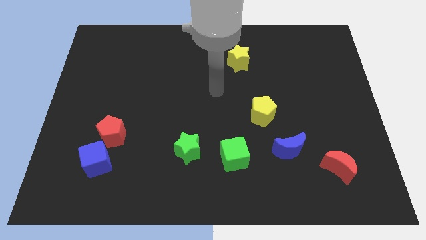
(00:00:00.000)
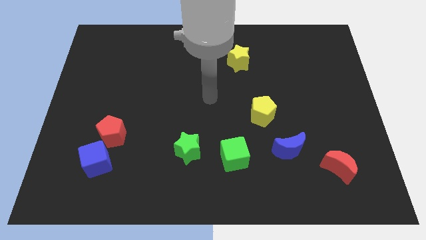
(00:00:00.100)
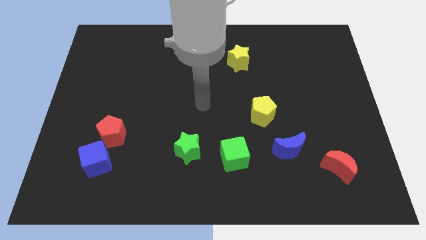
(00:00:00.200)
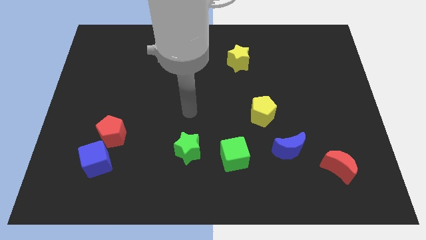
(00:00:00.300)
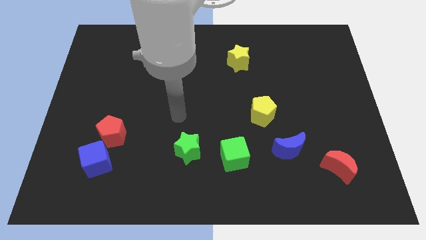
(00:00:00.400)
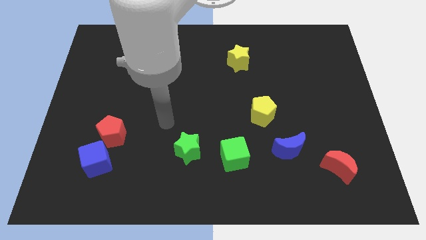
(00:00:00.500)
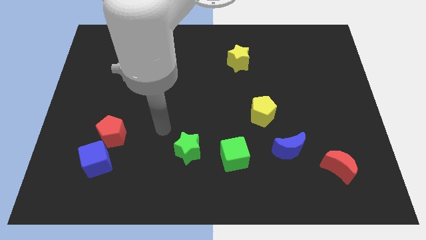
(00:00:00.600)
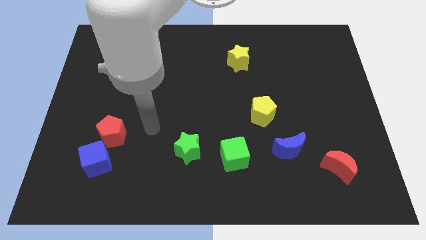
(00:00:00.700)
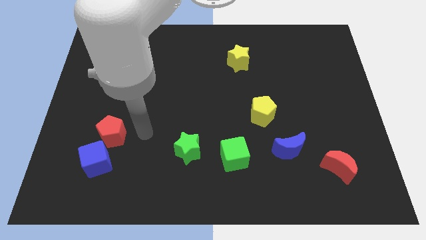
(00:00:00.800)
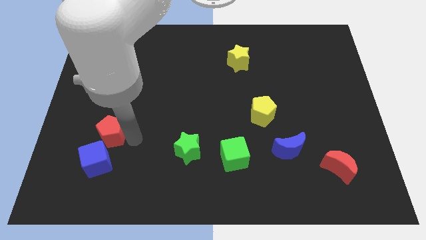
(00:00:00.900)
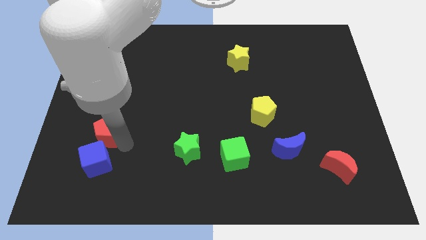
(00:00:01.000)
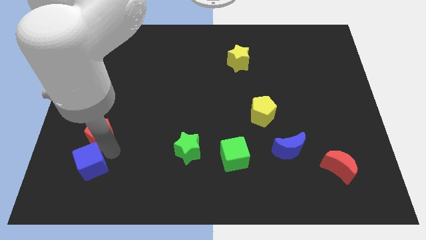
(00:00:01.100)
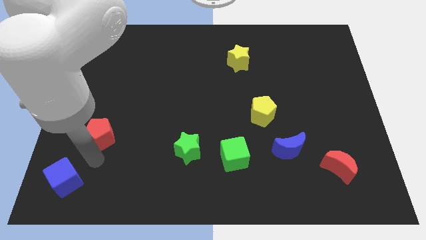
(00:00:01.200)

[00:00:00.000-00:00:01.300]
separate the red pentagon from the blue cube

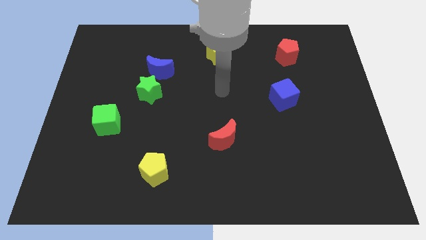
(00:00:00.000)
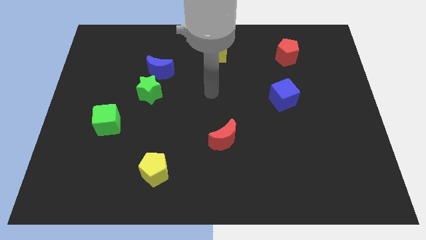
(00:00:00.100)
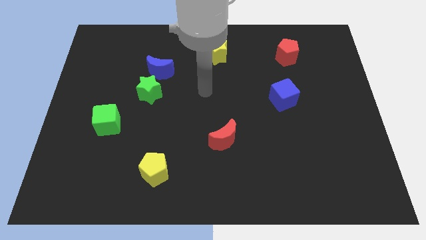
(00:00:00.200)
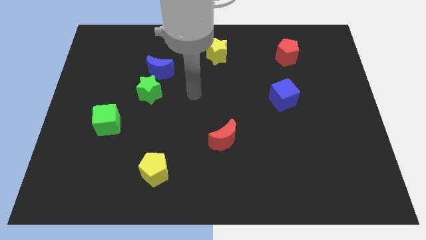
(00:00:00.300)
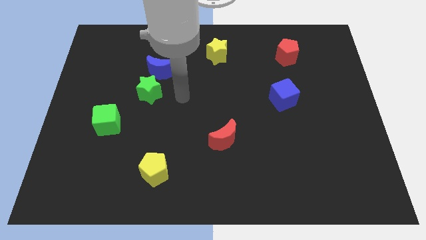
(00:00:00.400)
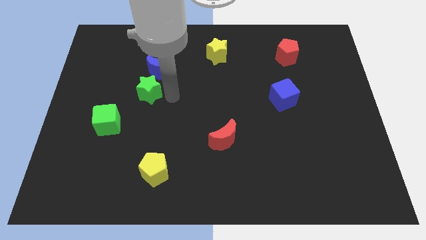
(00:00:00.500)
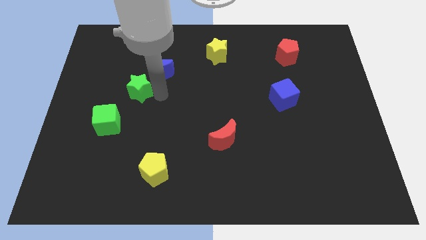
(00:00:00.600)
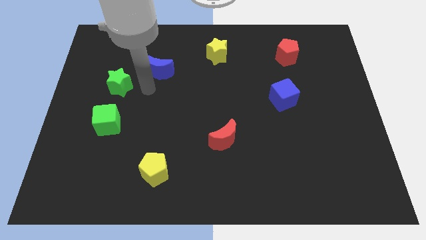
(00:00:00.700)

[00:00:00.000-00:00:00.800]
separate the blue moon from the green star

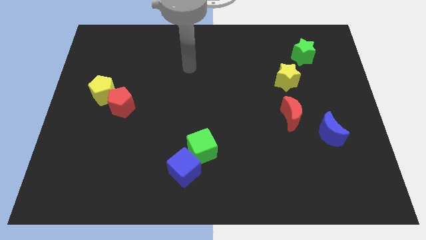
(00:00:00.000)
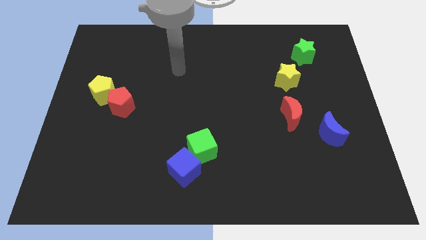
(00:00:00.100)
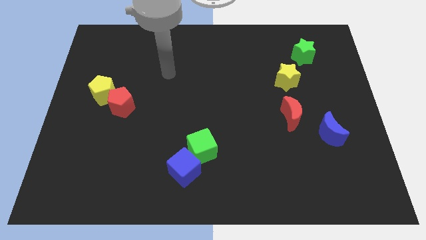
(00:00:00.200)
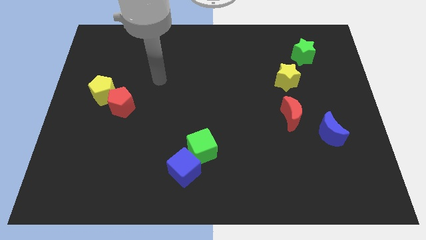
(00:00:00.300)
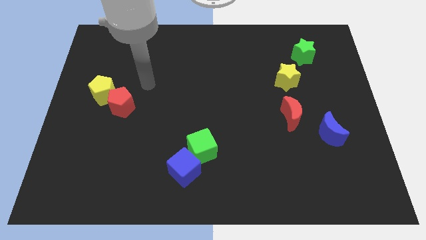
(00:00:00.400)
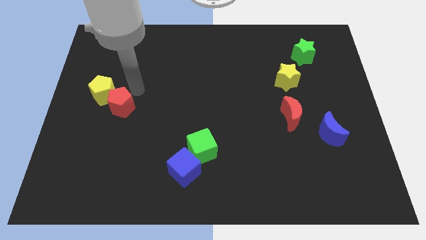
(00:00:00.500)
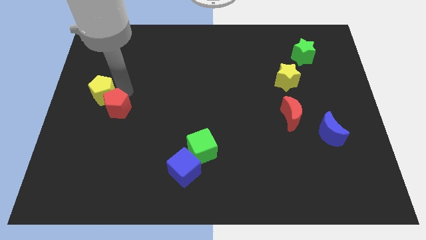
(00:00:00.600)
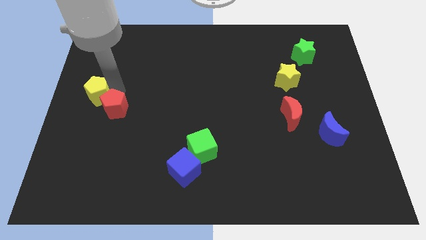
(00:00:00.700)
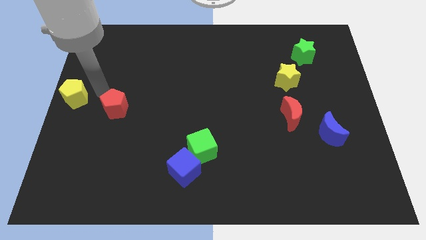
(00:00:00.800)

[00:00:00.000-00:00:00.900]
separate the red pentagon from the yellow pentagon

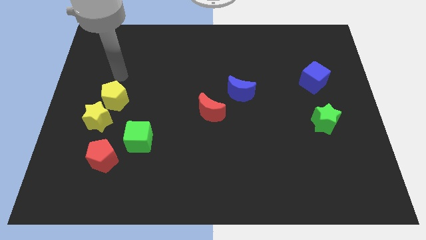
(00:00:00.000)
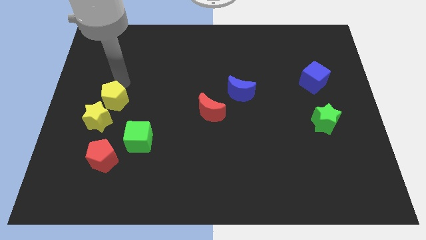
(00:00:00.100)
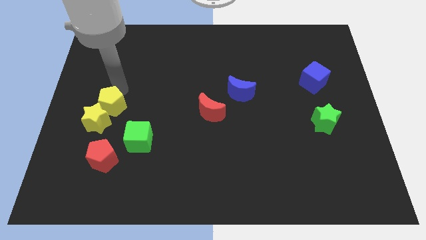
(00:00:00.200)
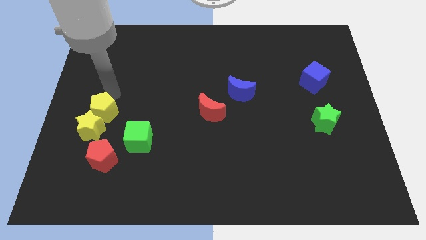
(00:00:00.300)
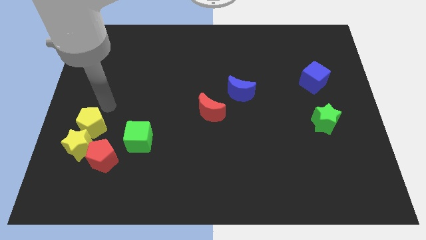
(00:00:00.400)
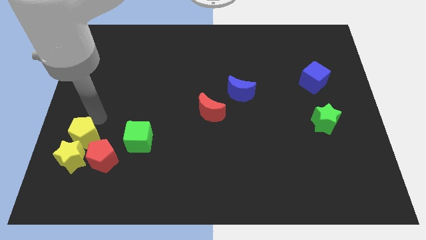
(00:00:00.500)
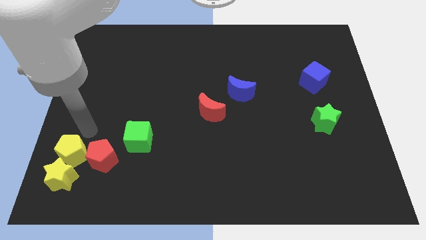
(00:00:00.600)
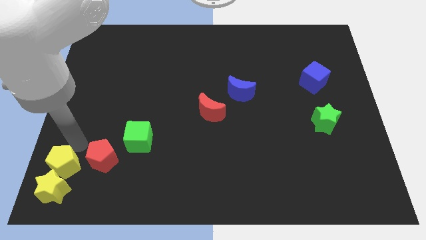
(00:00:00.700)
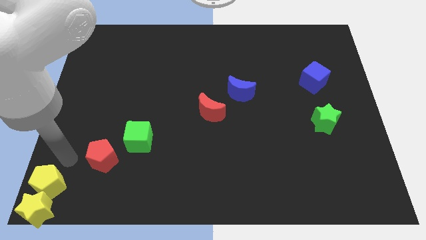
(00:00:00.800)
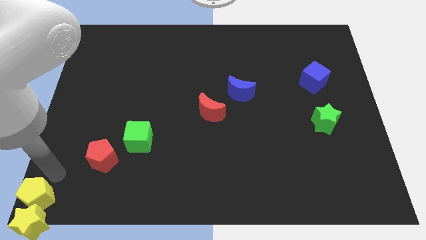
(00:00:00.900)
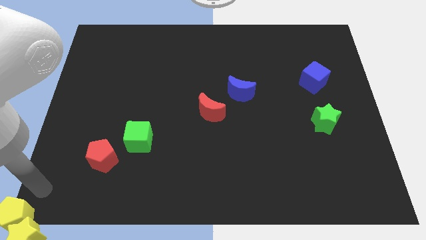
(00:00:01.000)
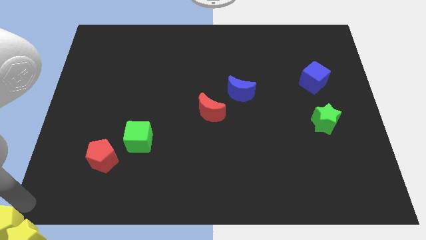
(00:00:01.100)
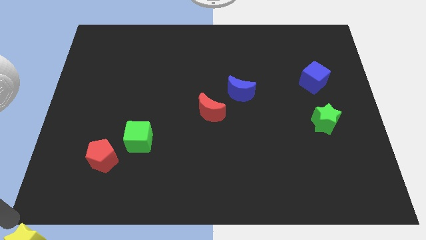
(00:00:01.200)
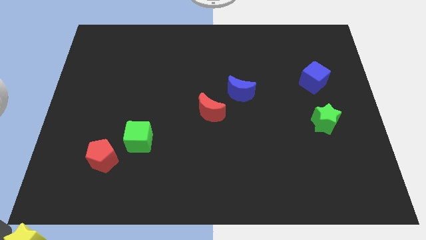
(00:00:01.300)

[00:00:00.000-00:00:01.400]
separate the yellow star from the yellow pentagon

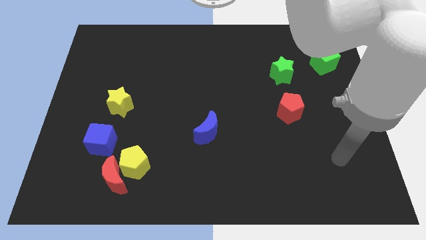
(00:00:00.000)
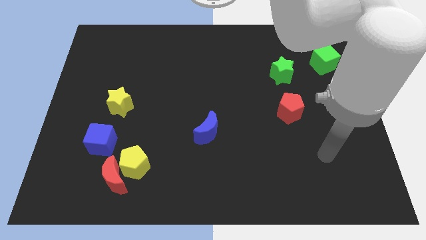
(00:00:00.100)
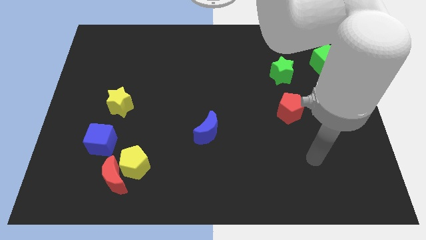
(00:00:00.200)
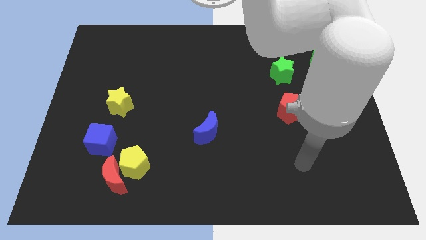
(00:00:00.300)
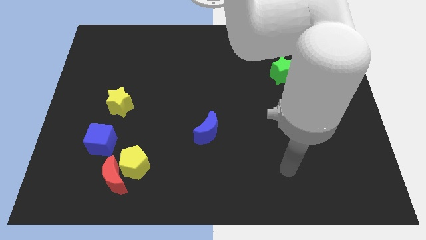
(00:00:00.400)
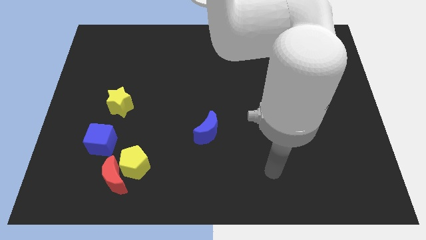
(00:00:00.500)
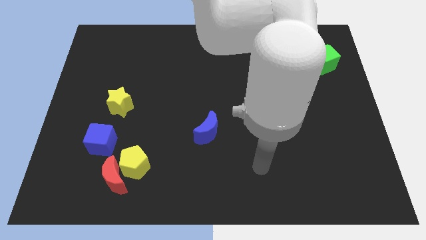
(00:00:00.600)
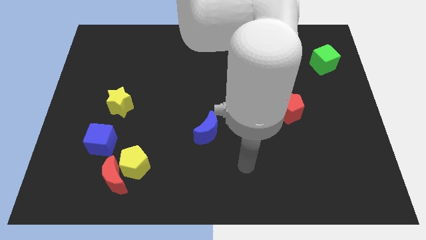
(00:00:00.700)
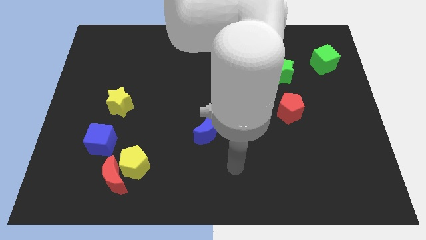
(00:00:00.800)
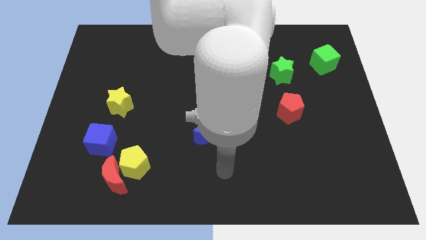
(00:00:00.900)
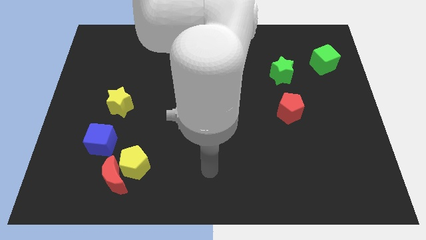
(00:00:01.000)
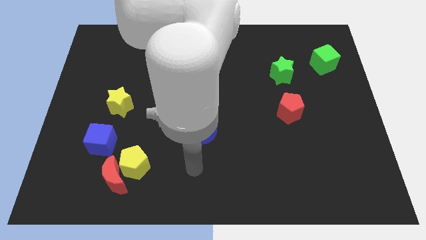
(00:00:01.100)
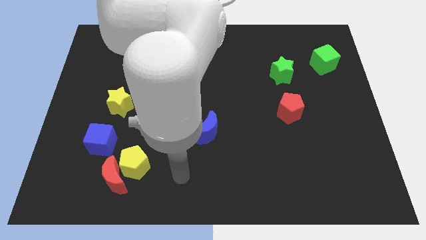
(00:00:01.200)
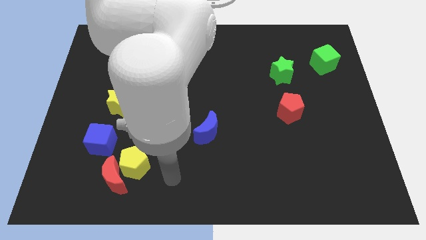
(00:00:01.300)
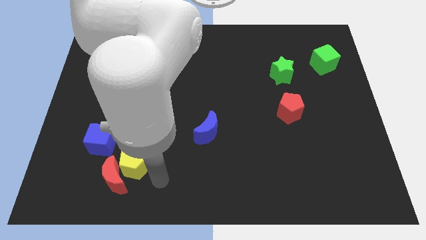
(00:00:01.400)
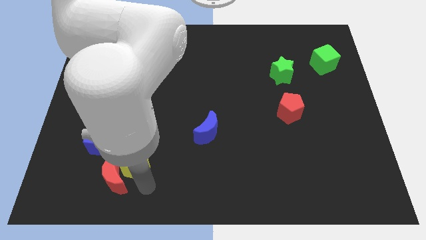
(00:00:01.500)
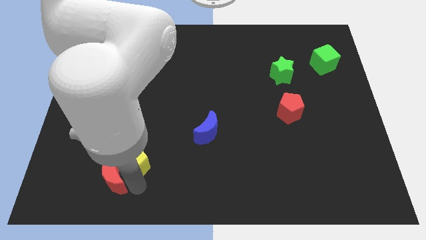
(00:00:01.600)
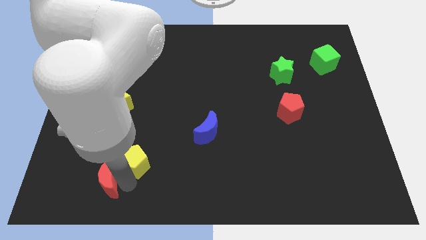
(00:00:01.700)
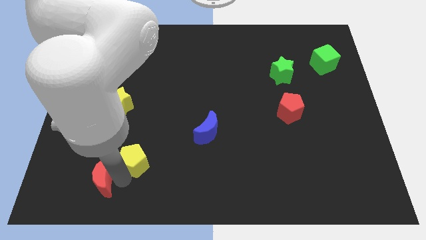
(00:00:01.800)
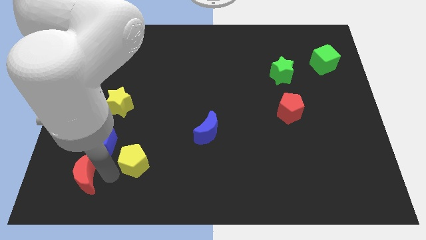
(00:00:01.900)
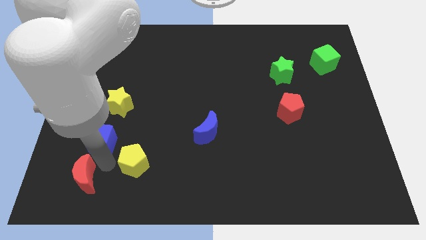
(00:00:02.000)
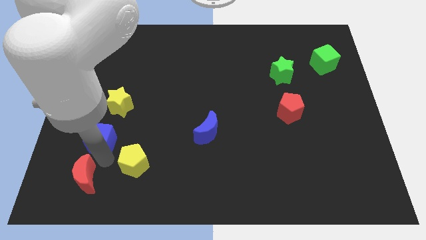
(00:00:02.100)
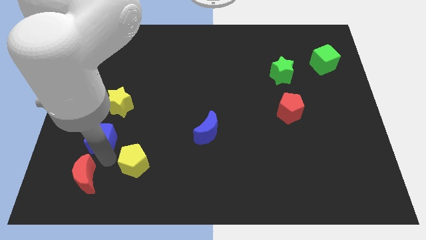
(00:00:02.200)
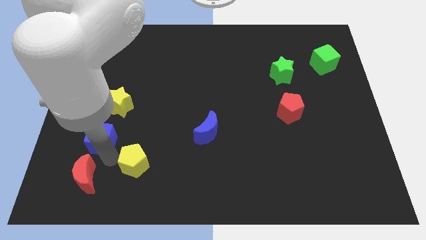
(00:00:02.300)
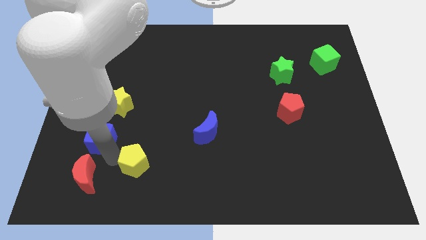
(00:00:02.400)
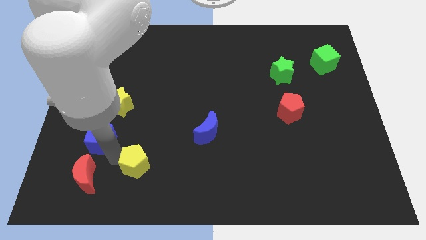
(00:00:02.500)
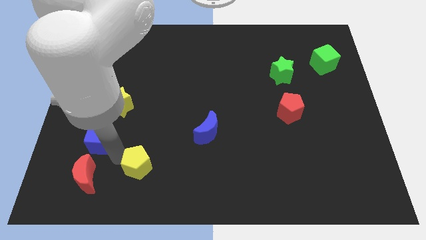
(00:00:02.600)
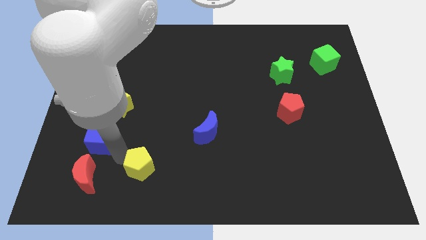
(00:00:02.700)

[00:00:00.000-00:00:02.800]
pull the yellow pentagon apart from the red moon and blue cube

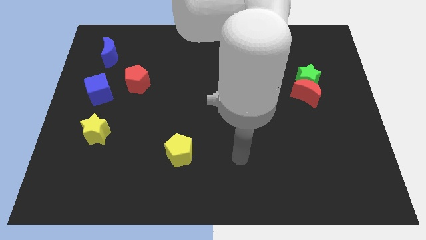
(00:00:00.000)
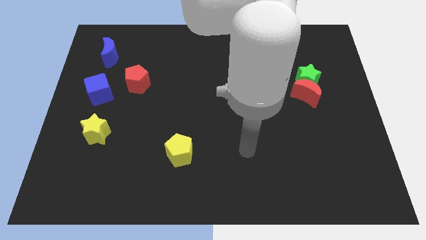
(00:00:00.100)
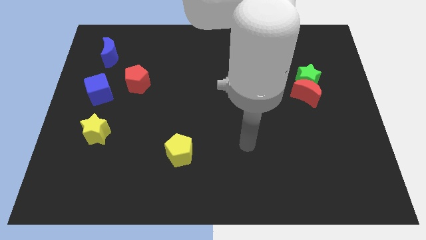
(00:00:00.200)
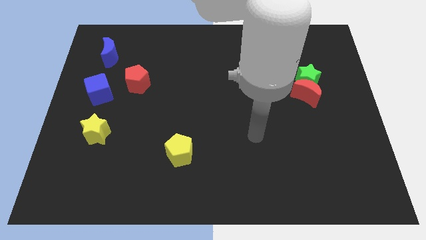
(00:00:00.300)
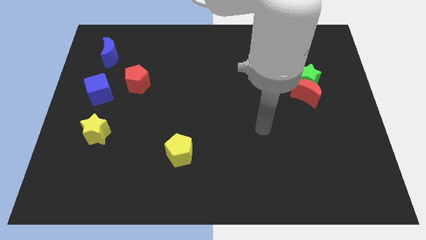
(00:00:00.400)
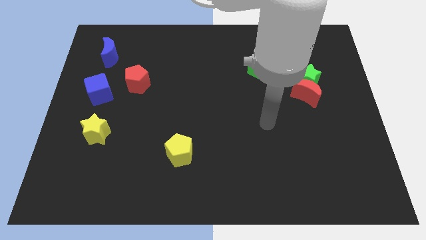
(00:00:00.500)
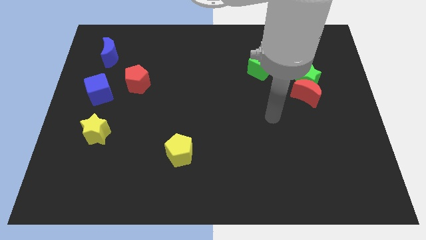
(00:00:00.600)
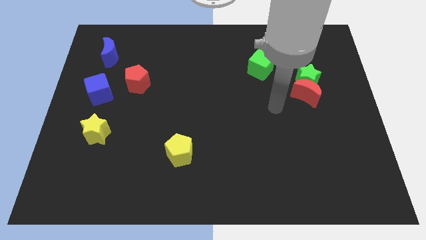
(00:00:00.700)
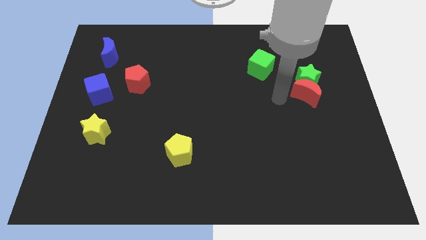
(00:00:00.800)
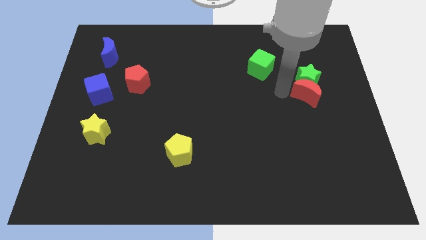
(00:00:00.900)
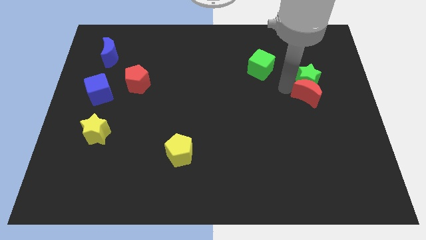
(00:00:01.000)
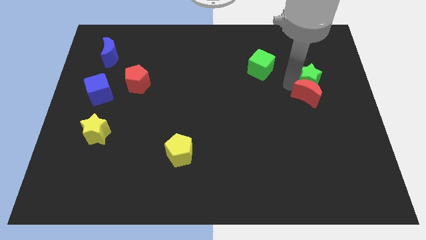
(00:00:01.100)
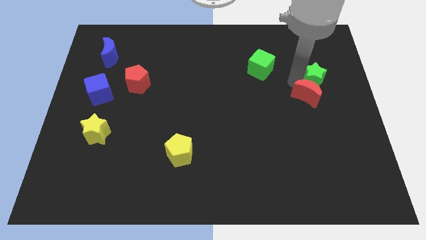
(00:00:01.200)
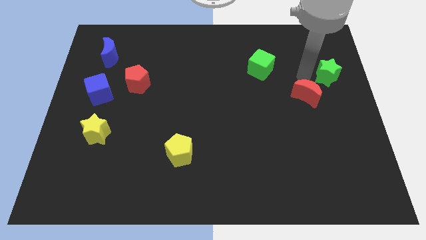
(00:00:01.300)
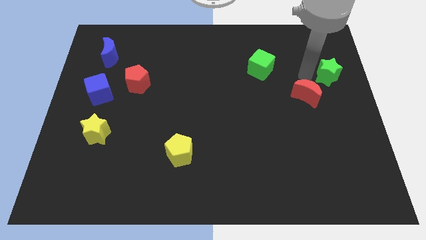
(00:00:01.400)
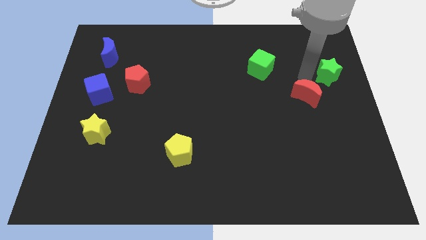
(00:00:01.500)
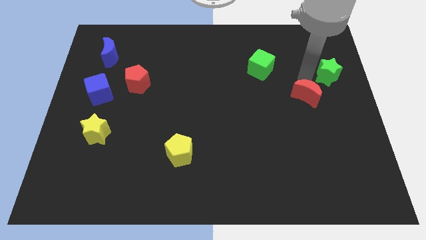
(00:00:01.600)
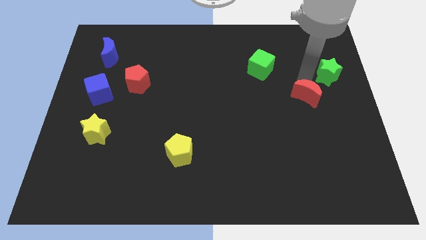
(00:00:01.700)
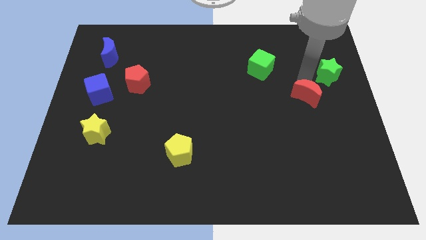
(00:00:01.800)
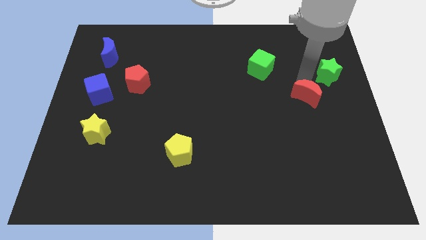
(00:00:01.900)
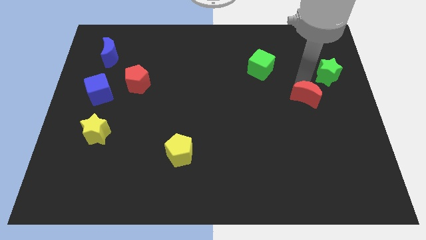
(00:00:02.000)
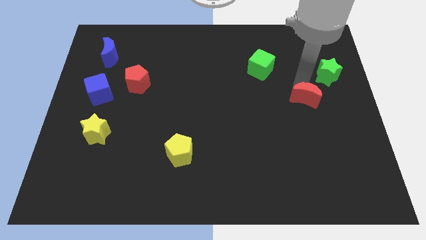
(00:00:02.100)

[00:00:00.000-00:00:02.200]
separate the red moon from the green star

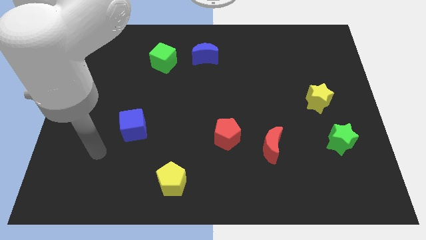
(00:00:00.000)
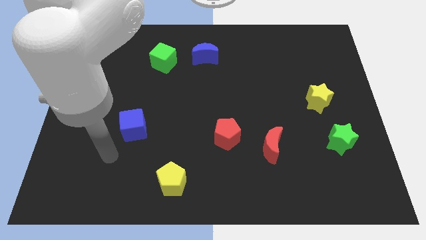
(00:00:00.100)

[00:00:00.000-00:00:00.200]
separate the red moon from the red pentagon
